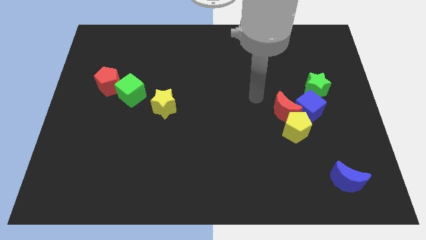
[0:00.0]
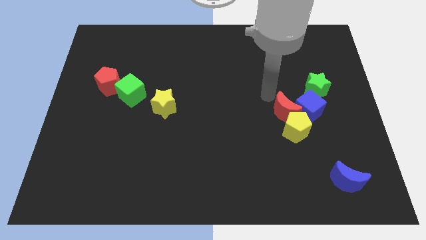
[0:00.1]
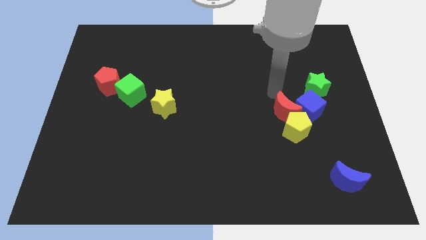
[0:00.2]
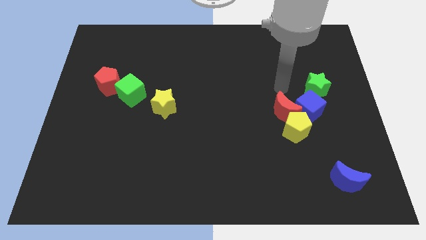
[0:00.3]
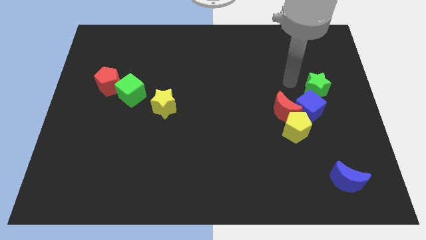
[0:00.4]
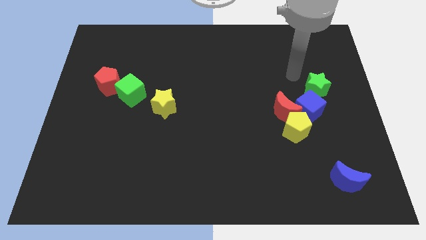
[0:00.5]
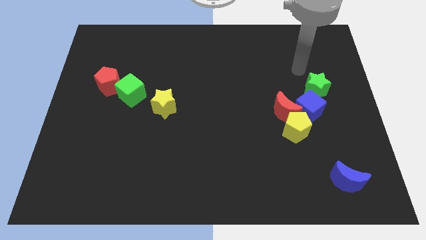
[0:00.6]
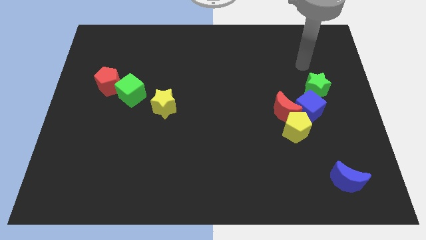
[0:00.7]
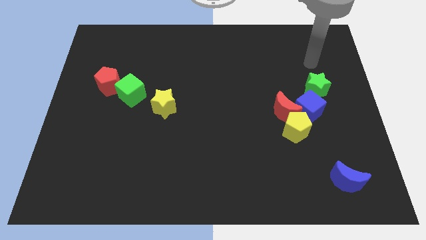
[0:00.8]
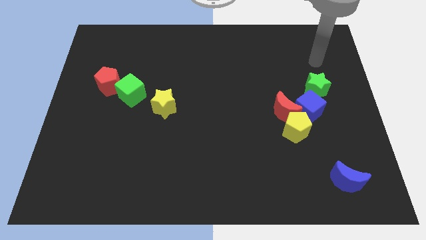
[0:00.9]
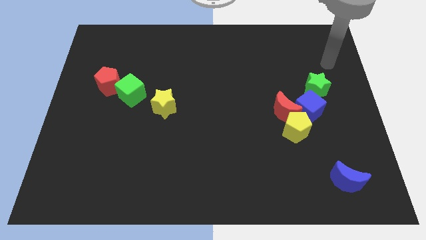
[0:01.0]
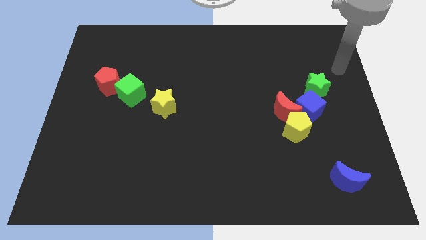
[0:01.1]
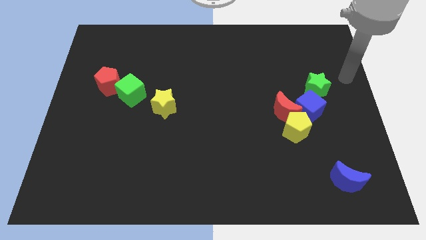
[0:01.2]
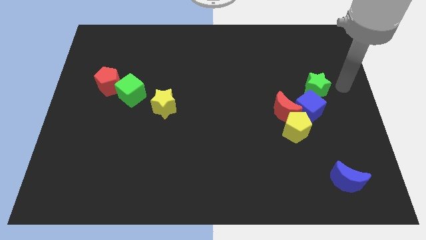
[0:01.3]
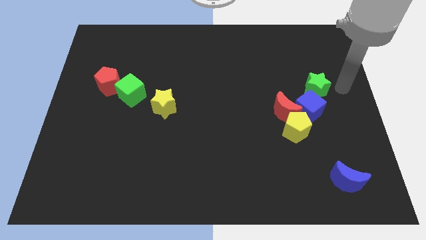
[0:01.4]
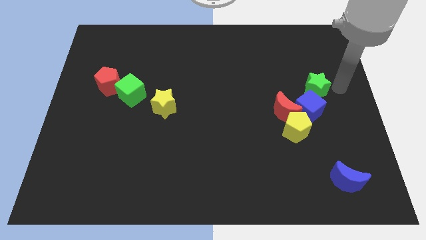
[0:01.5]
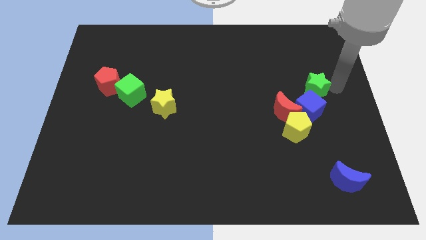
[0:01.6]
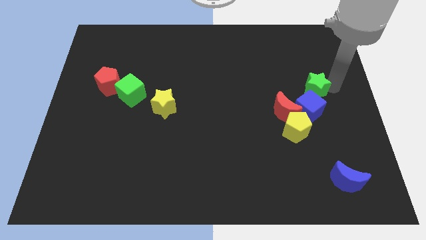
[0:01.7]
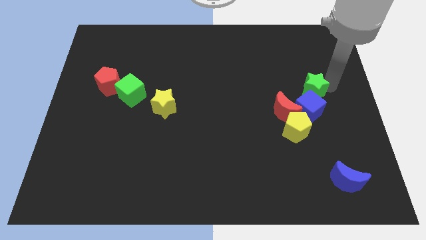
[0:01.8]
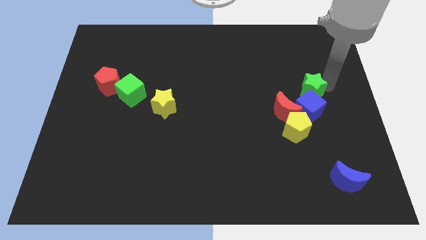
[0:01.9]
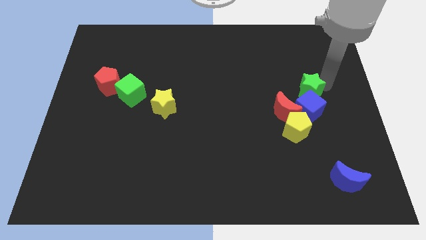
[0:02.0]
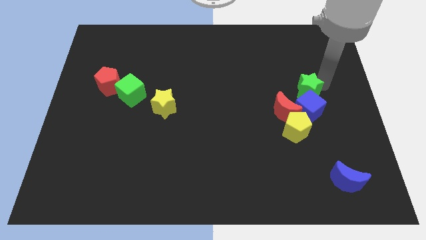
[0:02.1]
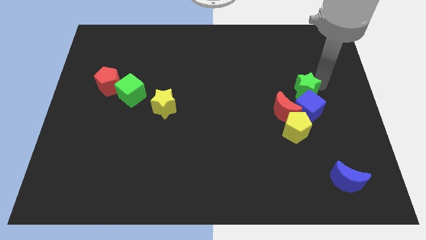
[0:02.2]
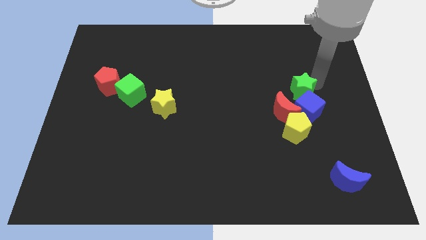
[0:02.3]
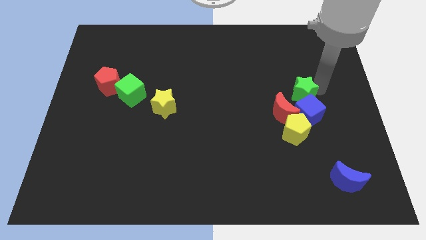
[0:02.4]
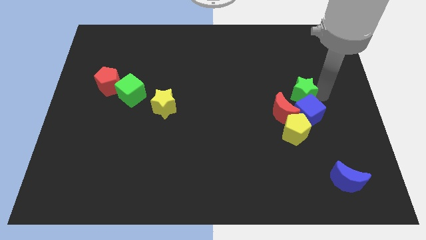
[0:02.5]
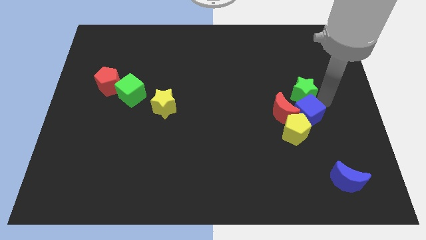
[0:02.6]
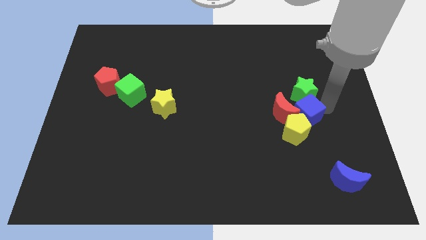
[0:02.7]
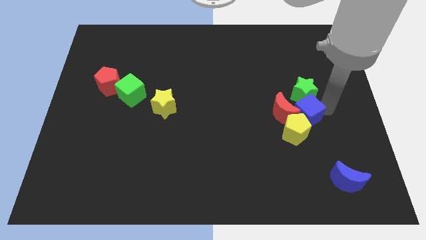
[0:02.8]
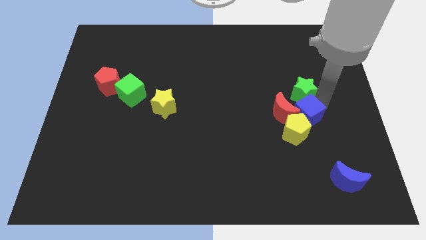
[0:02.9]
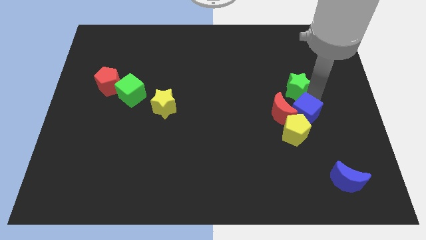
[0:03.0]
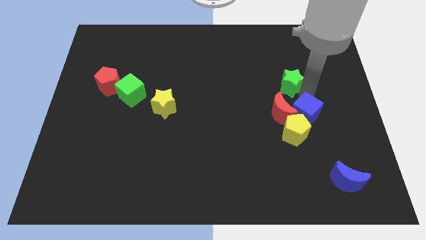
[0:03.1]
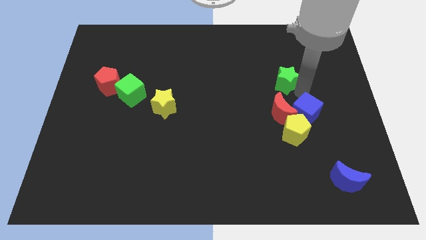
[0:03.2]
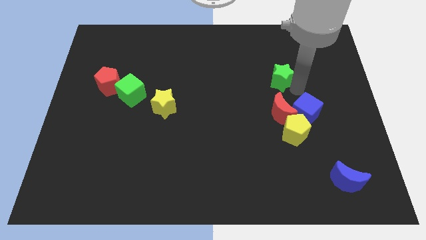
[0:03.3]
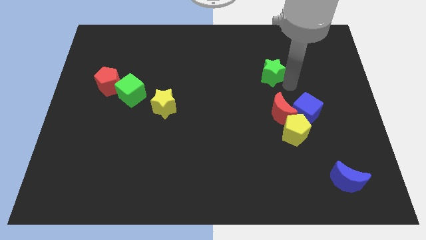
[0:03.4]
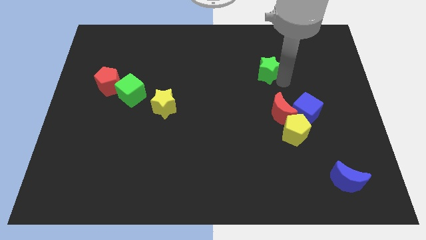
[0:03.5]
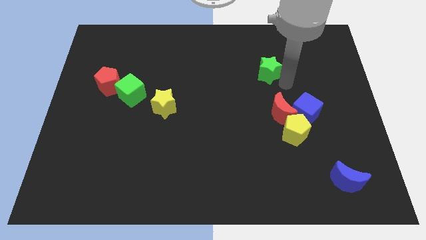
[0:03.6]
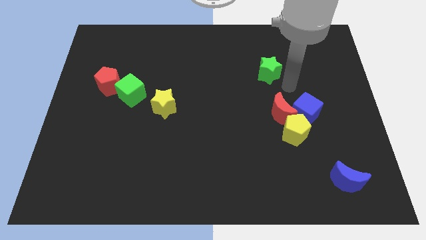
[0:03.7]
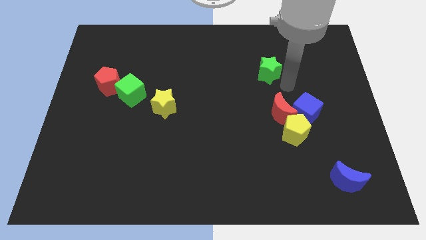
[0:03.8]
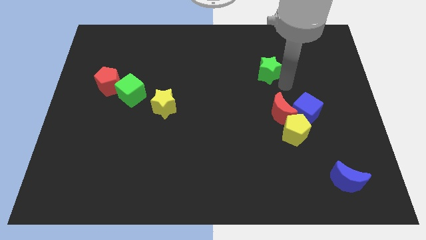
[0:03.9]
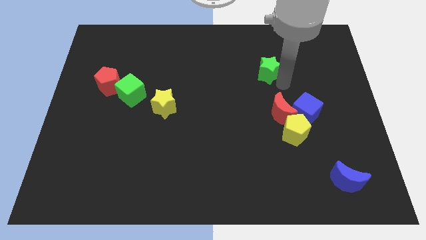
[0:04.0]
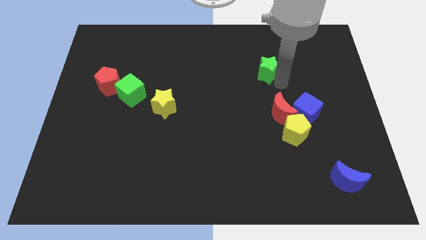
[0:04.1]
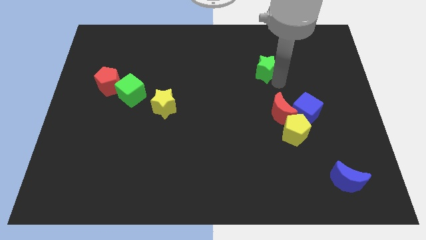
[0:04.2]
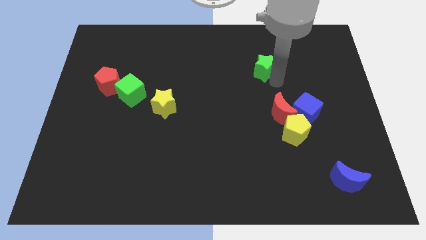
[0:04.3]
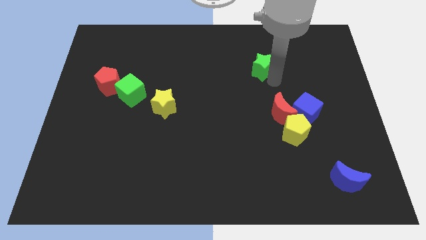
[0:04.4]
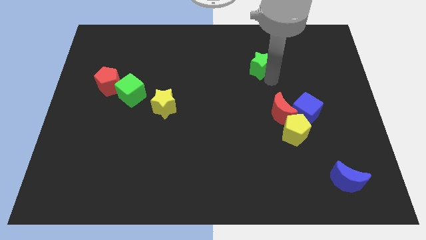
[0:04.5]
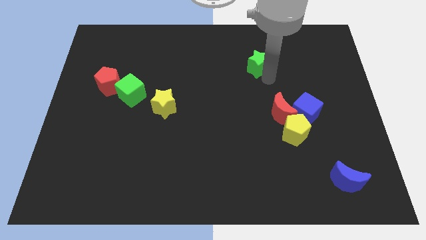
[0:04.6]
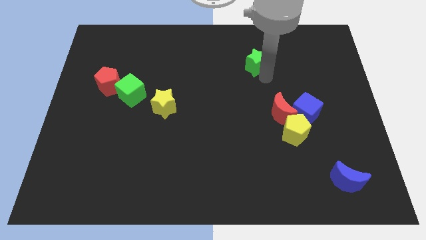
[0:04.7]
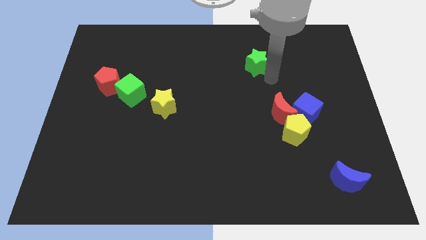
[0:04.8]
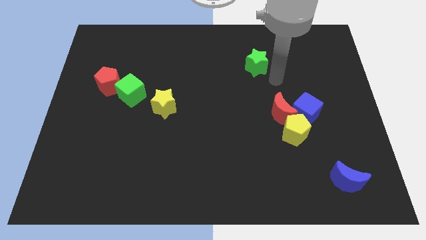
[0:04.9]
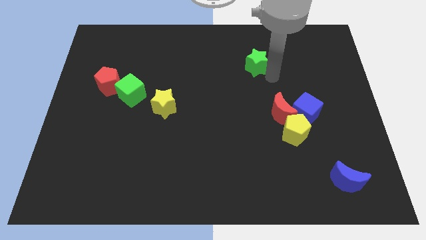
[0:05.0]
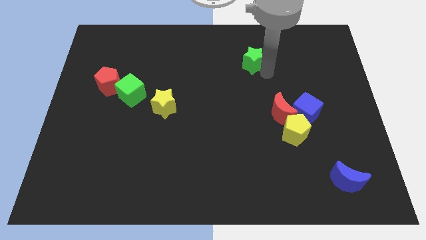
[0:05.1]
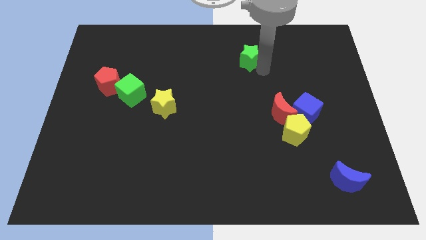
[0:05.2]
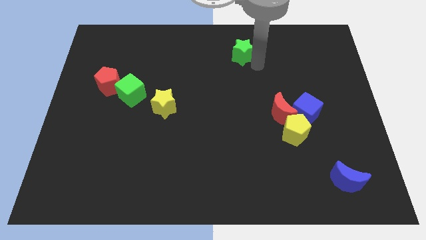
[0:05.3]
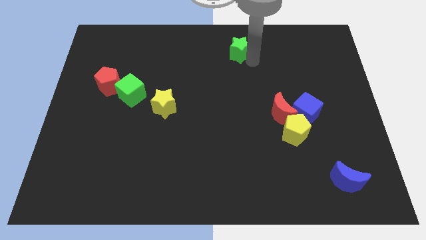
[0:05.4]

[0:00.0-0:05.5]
slide the green star to the top

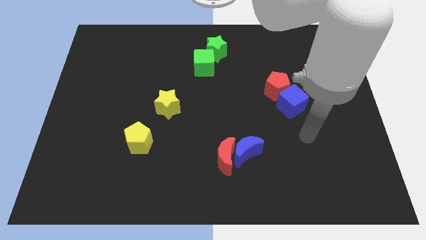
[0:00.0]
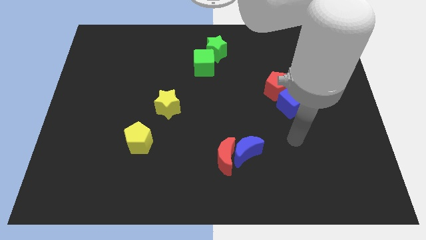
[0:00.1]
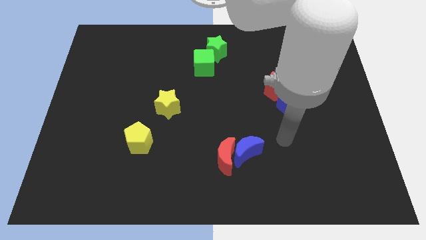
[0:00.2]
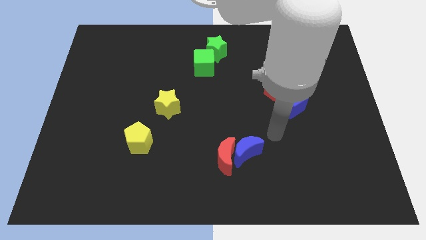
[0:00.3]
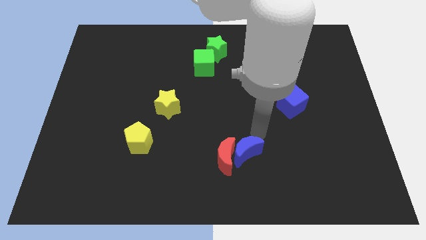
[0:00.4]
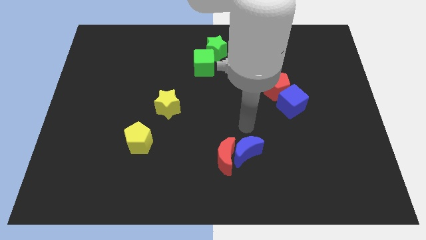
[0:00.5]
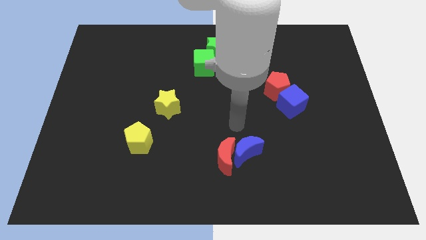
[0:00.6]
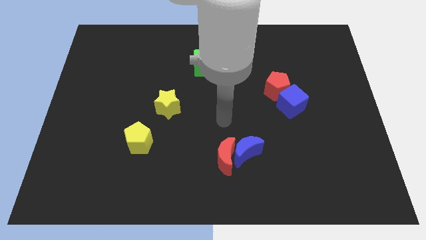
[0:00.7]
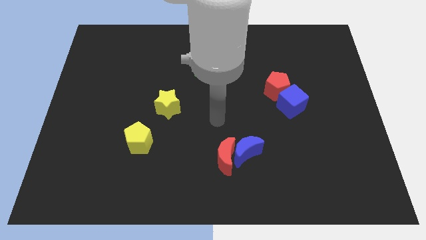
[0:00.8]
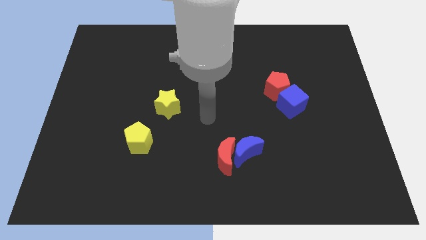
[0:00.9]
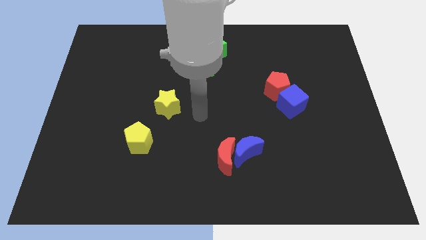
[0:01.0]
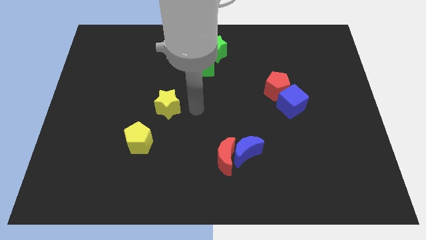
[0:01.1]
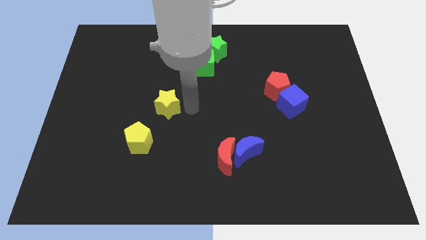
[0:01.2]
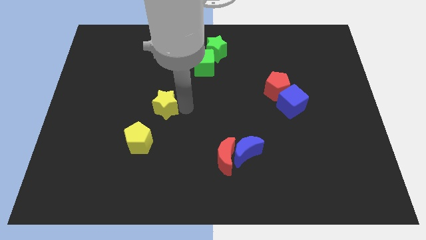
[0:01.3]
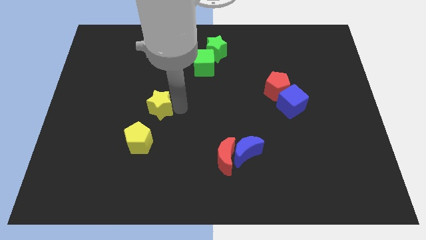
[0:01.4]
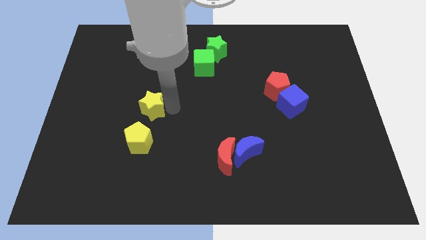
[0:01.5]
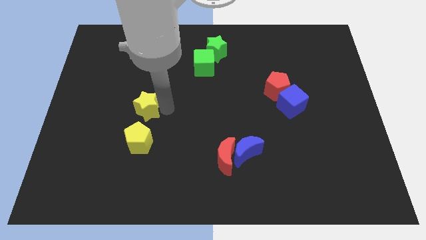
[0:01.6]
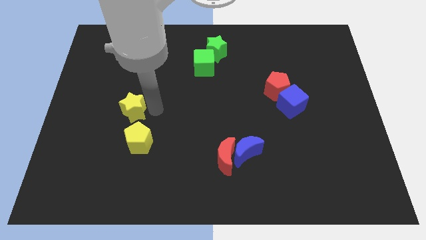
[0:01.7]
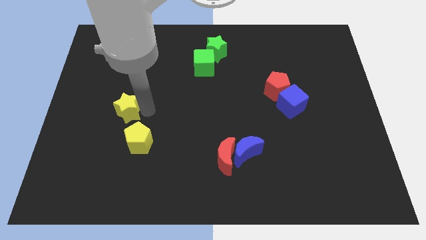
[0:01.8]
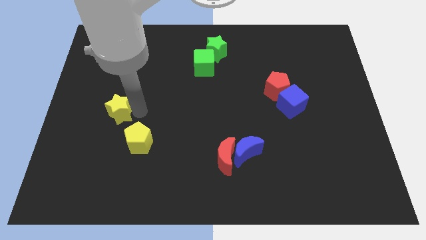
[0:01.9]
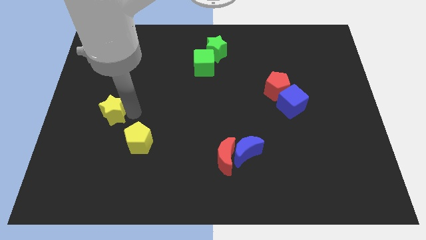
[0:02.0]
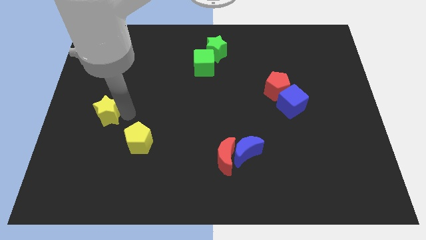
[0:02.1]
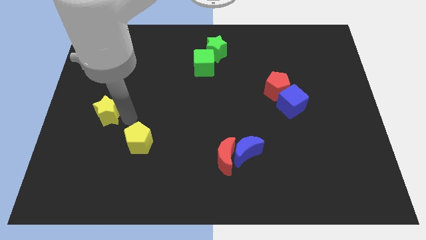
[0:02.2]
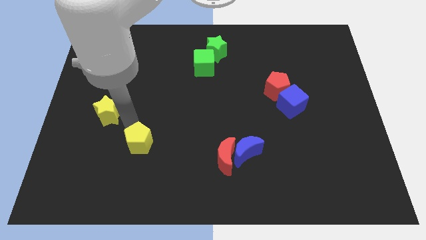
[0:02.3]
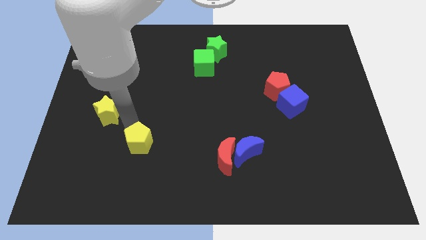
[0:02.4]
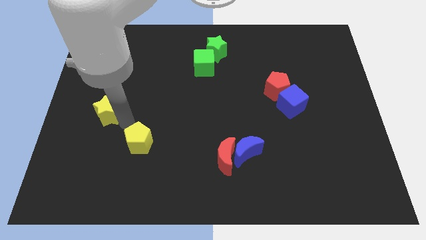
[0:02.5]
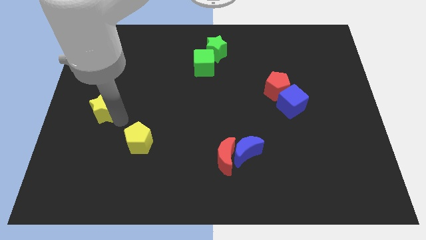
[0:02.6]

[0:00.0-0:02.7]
put the yellow star to the left side of the board
